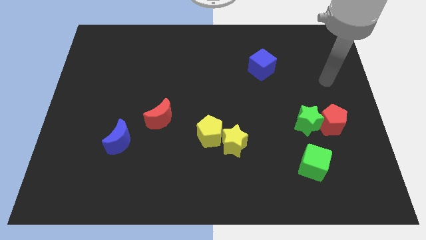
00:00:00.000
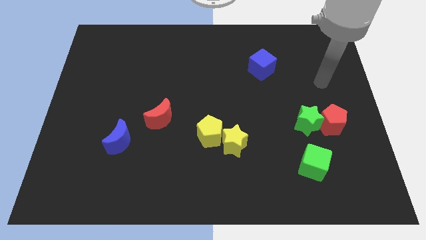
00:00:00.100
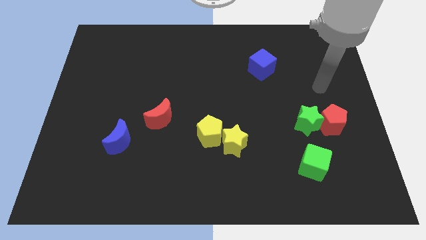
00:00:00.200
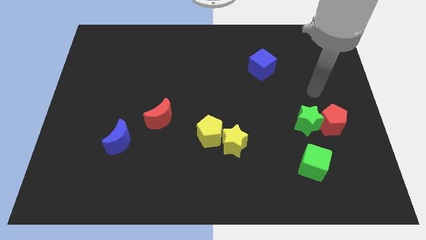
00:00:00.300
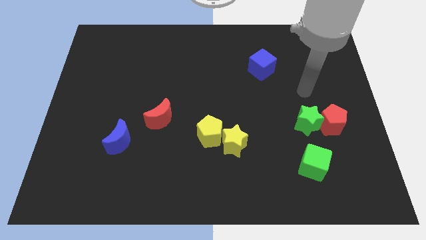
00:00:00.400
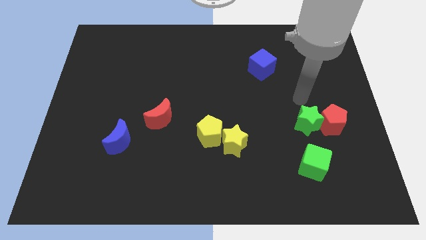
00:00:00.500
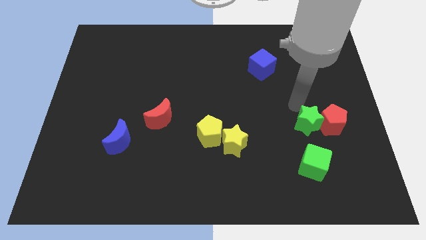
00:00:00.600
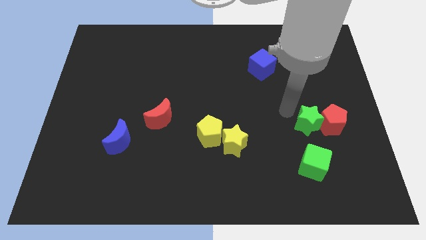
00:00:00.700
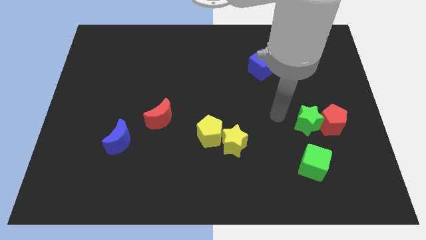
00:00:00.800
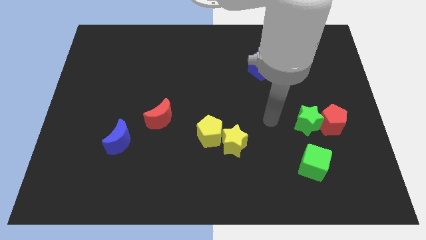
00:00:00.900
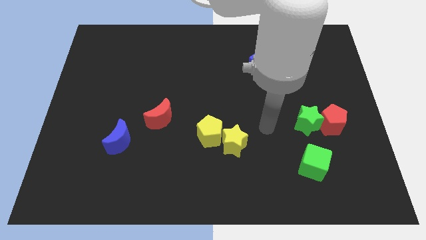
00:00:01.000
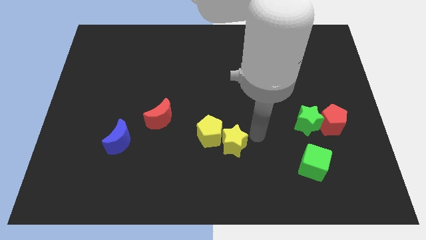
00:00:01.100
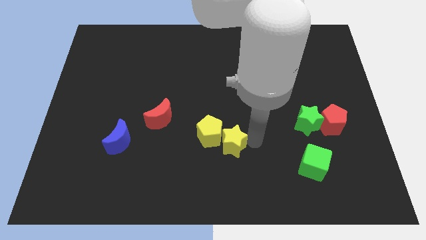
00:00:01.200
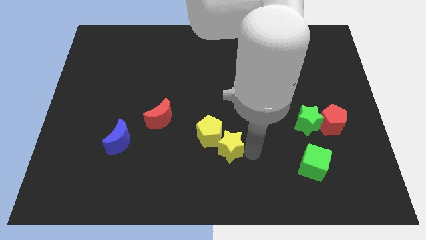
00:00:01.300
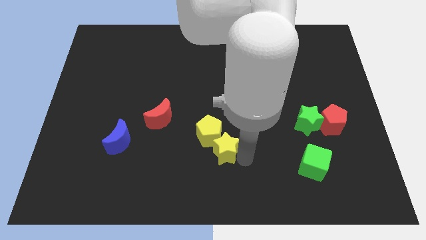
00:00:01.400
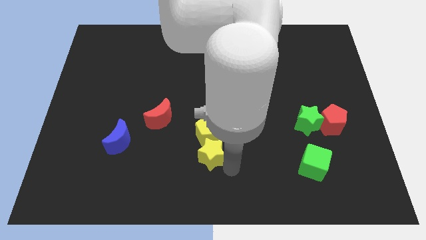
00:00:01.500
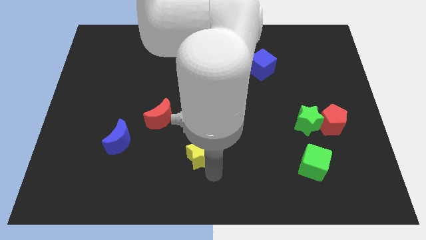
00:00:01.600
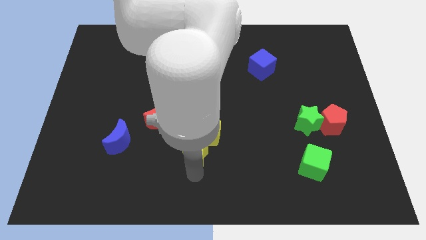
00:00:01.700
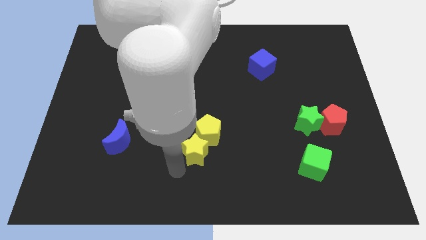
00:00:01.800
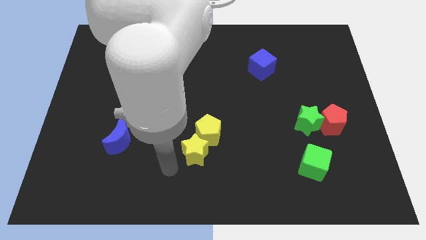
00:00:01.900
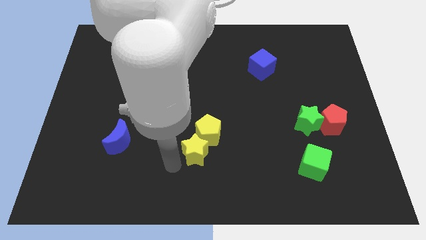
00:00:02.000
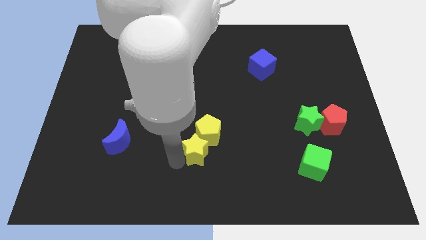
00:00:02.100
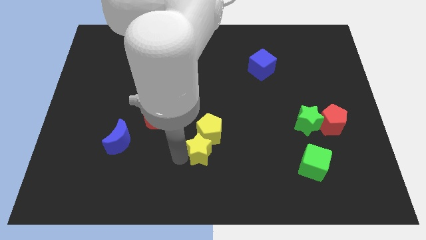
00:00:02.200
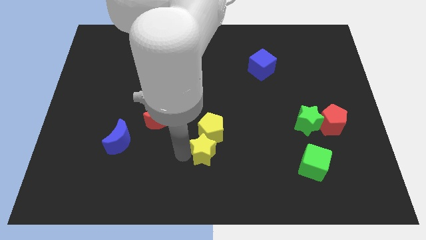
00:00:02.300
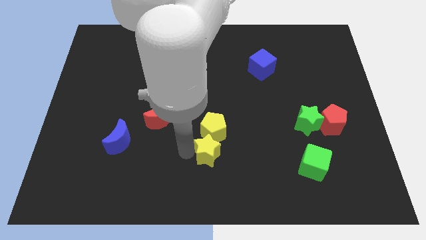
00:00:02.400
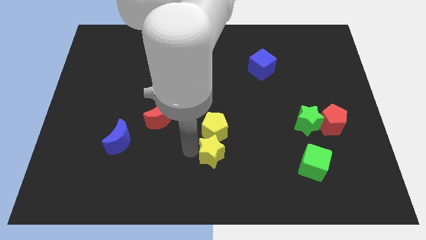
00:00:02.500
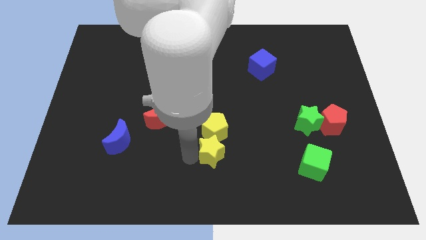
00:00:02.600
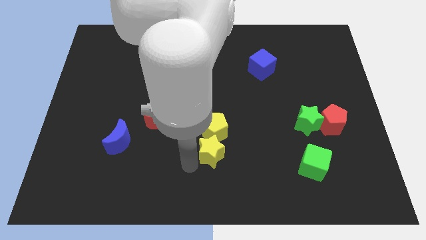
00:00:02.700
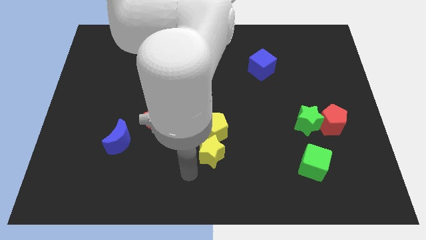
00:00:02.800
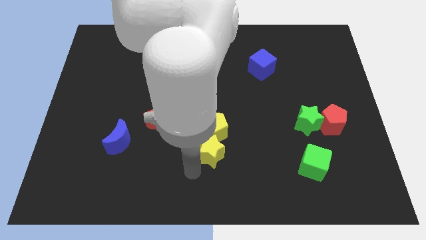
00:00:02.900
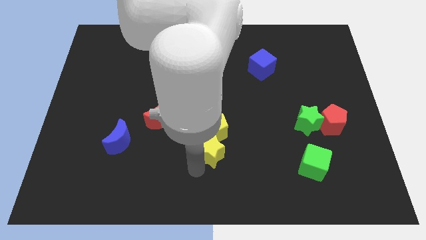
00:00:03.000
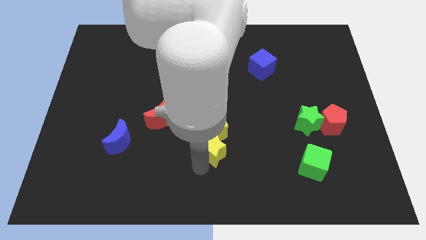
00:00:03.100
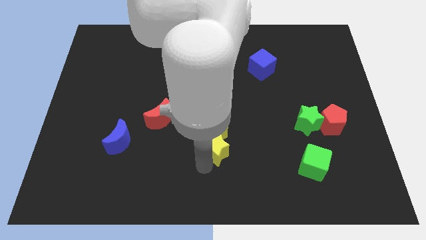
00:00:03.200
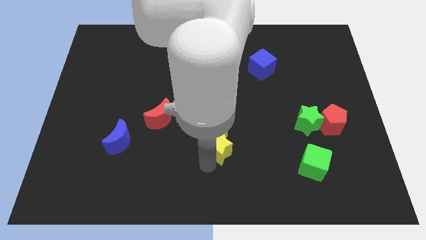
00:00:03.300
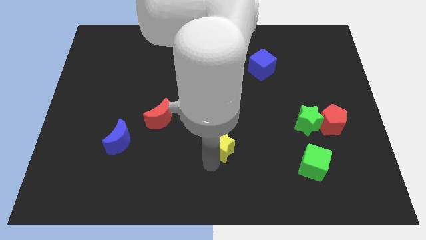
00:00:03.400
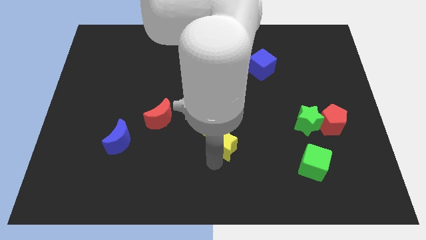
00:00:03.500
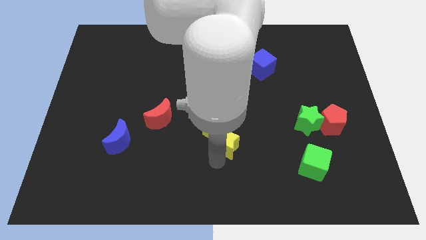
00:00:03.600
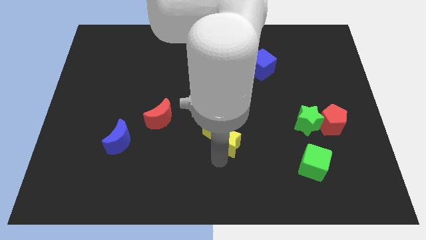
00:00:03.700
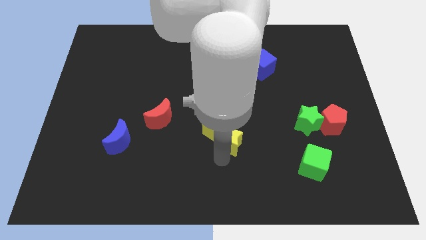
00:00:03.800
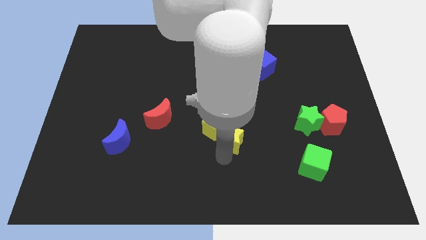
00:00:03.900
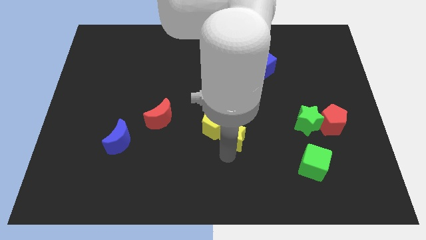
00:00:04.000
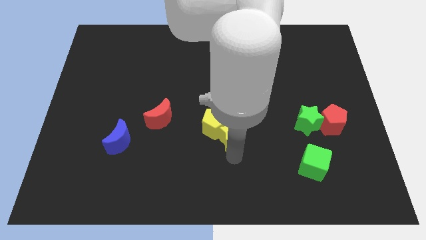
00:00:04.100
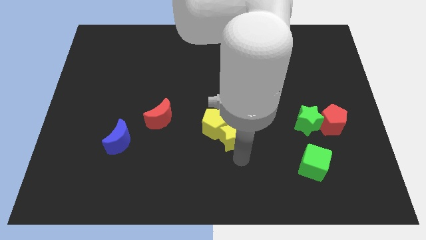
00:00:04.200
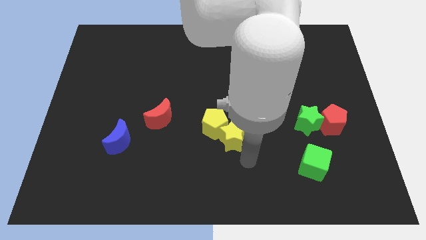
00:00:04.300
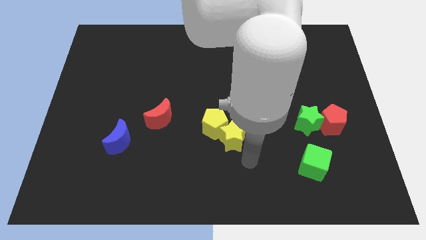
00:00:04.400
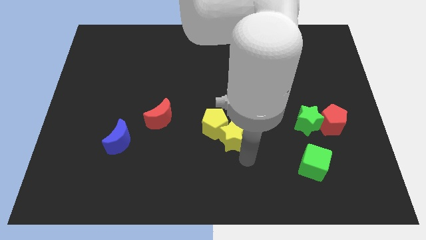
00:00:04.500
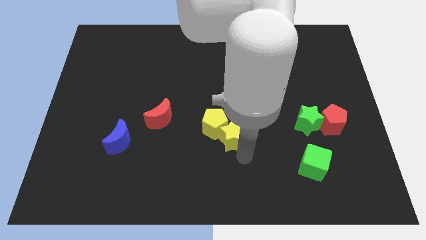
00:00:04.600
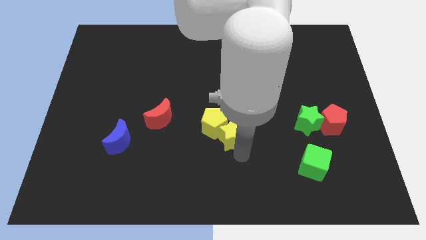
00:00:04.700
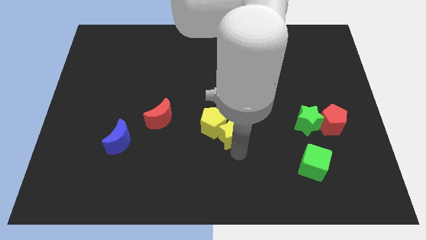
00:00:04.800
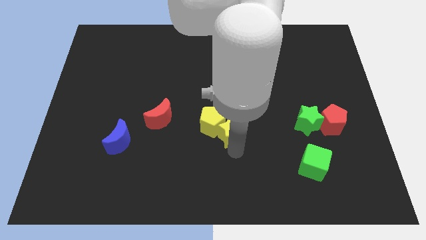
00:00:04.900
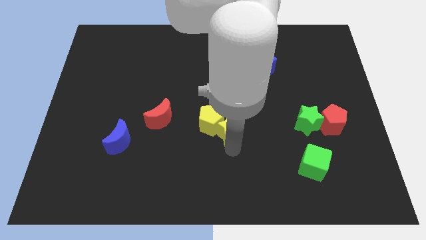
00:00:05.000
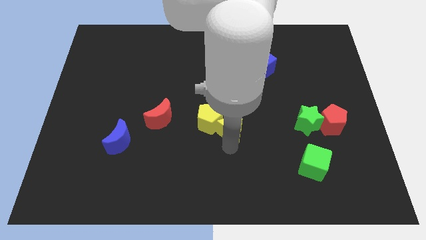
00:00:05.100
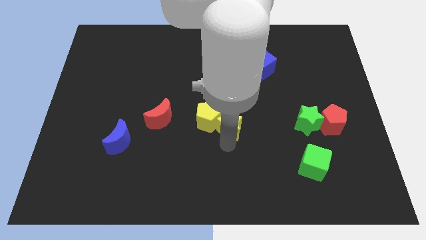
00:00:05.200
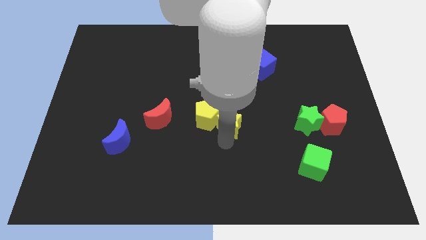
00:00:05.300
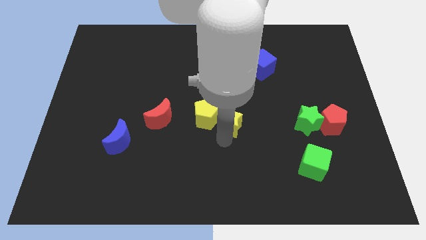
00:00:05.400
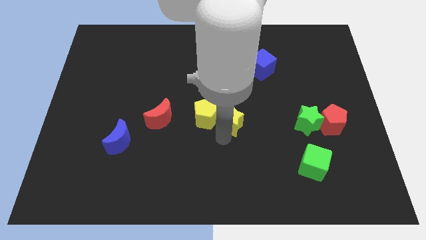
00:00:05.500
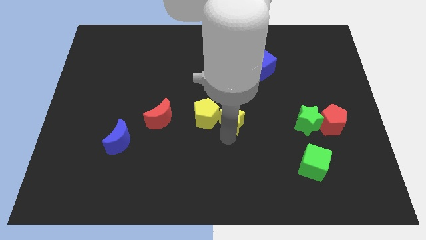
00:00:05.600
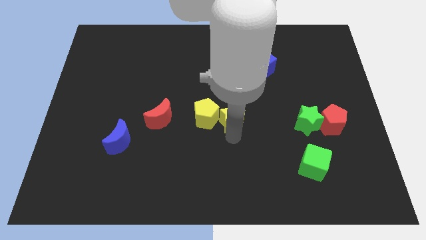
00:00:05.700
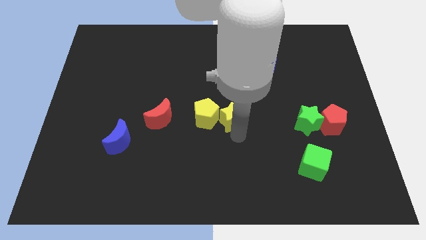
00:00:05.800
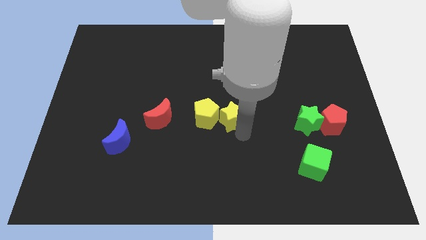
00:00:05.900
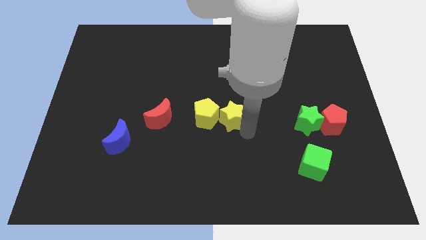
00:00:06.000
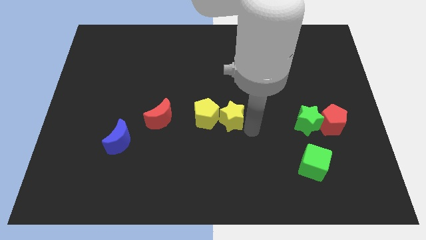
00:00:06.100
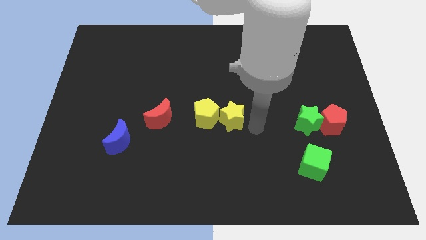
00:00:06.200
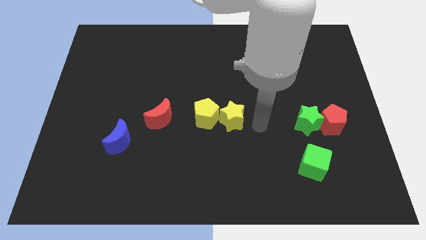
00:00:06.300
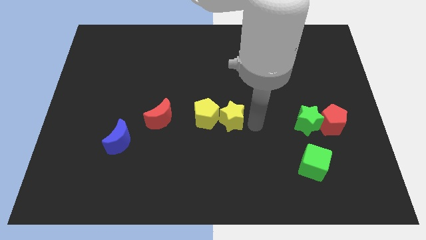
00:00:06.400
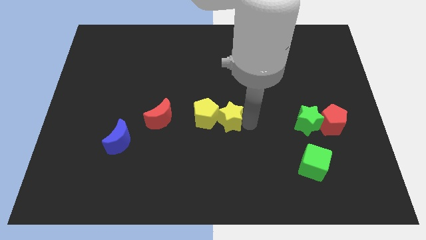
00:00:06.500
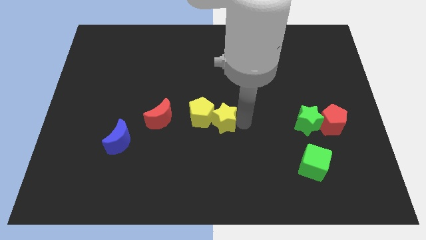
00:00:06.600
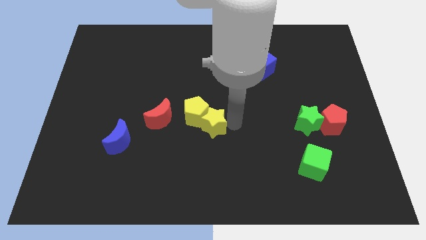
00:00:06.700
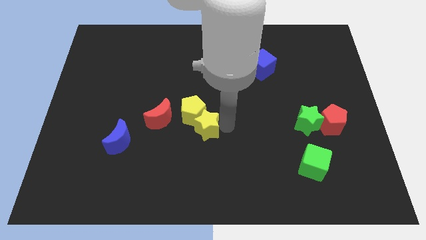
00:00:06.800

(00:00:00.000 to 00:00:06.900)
move the yellow star up and to the left somewhat

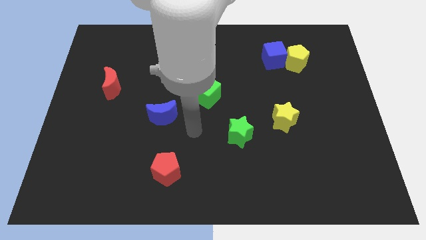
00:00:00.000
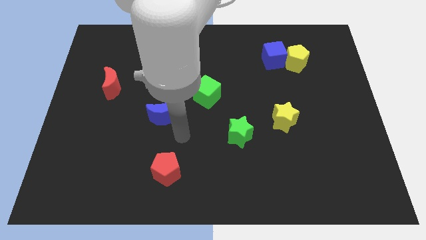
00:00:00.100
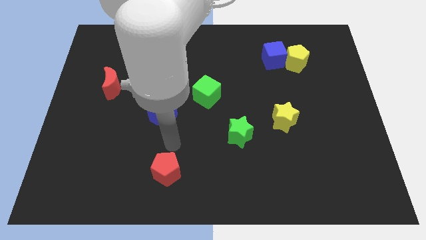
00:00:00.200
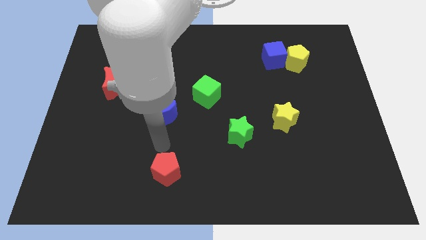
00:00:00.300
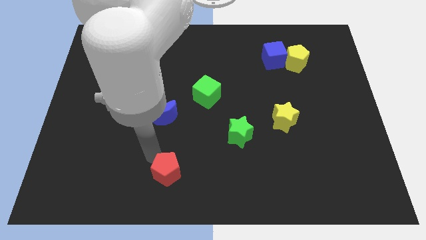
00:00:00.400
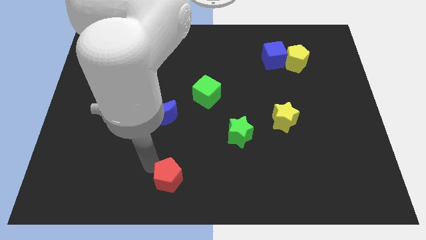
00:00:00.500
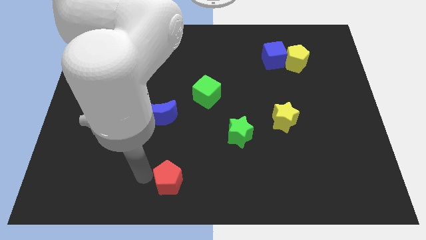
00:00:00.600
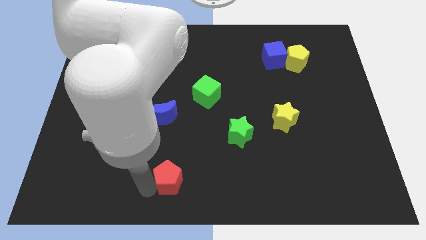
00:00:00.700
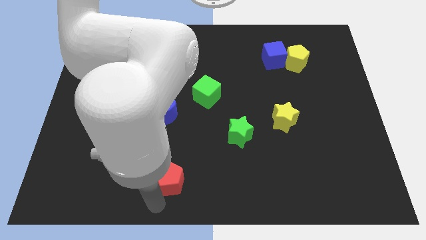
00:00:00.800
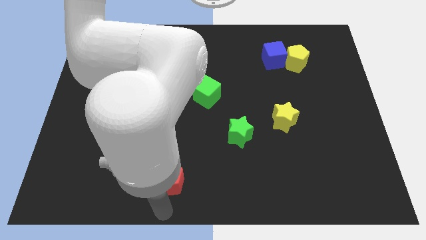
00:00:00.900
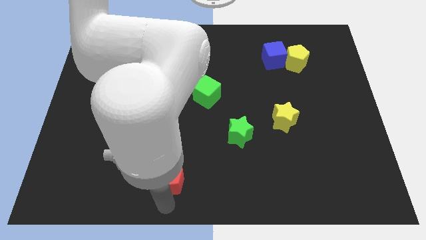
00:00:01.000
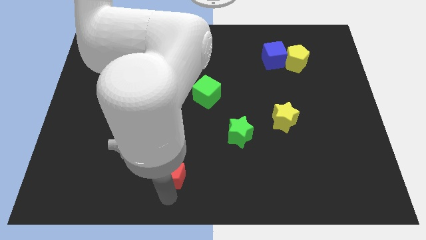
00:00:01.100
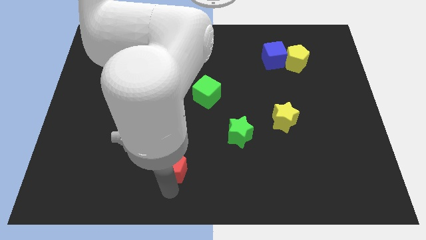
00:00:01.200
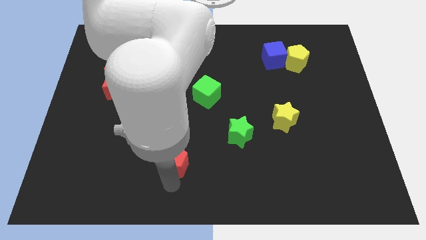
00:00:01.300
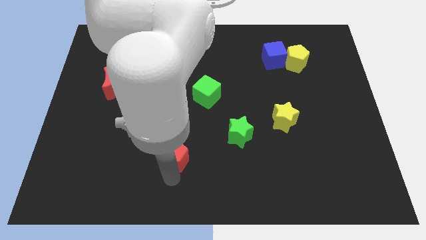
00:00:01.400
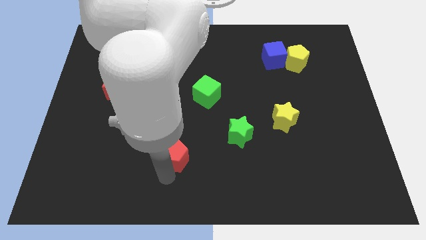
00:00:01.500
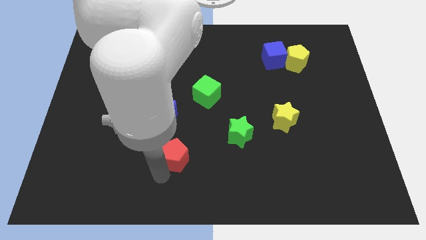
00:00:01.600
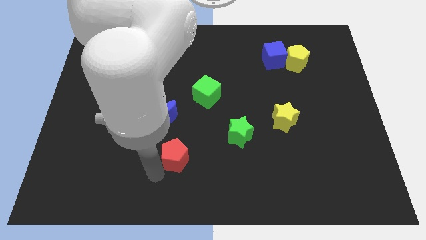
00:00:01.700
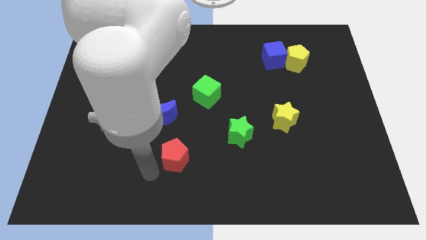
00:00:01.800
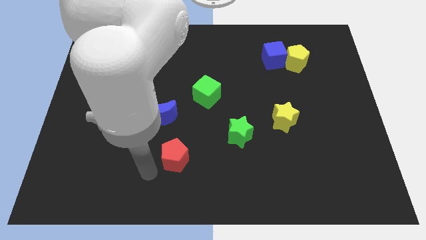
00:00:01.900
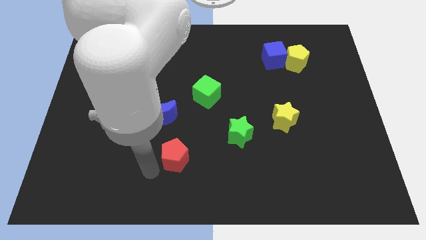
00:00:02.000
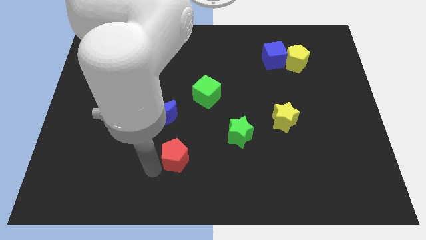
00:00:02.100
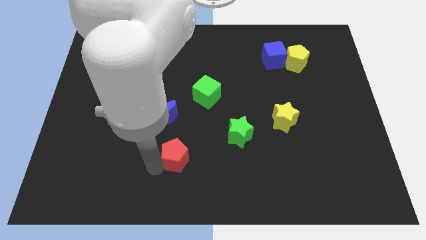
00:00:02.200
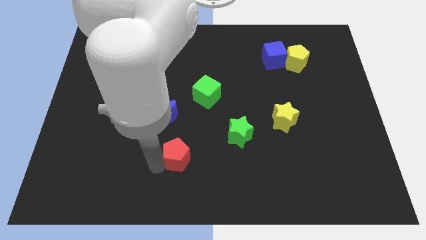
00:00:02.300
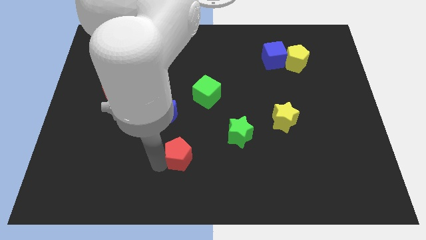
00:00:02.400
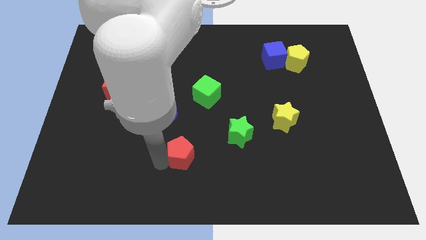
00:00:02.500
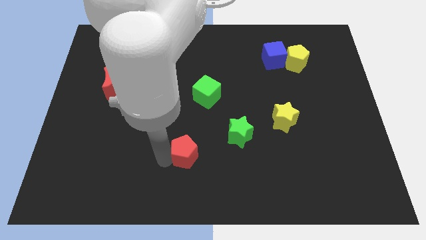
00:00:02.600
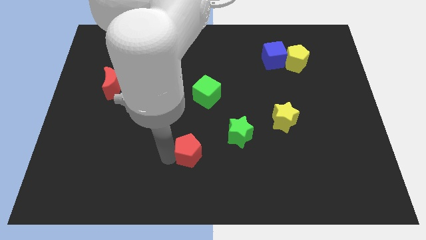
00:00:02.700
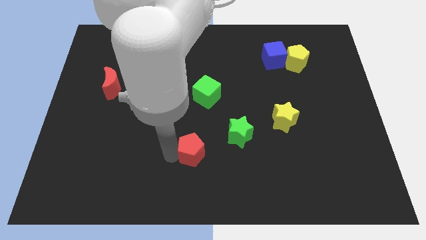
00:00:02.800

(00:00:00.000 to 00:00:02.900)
move the red pentagon up and to the right diagonally somewhat
